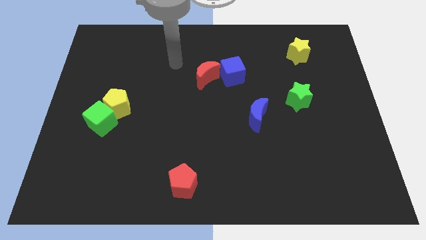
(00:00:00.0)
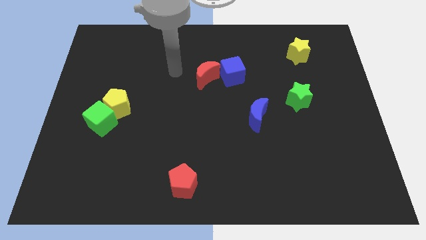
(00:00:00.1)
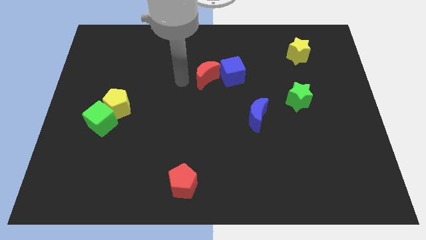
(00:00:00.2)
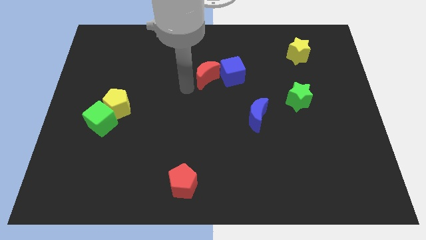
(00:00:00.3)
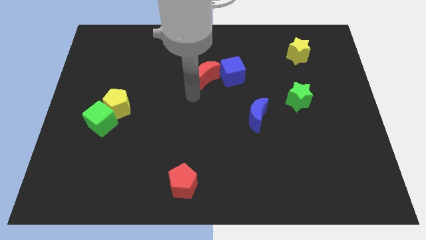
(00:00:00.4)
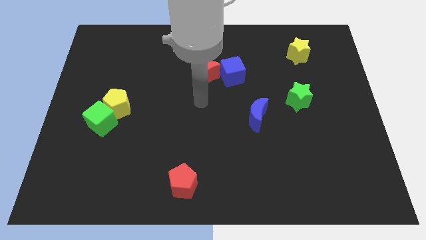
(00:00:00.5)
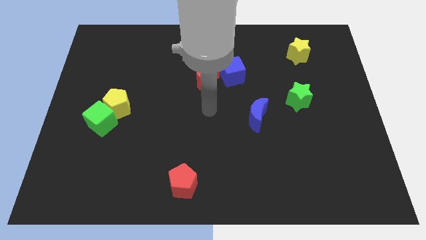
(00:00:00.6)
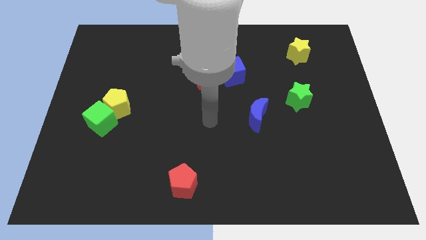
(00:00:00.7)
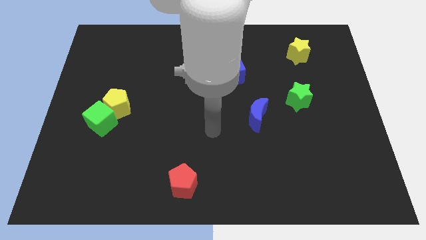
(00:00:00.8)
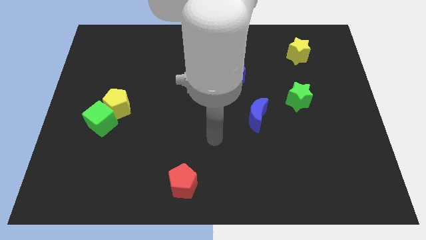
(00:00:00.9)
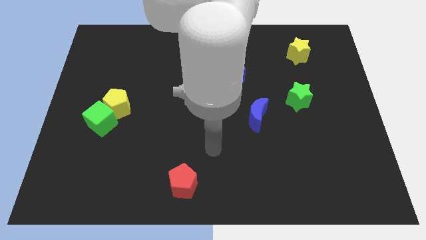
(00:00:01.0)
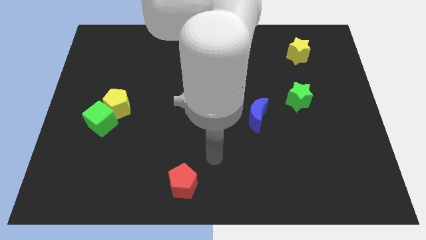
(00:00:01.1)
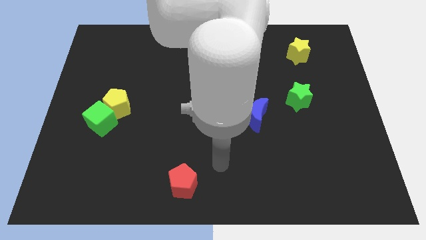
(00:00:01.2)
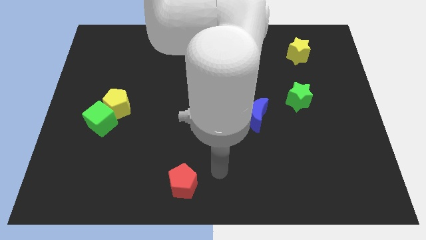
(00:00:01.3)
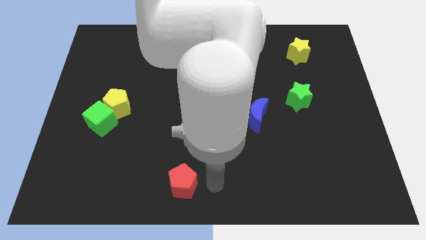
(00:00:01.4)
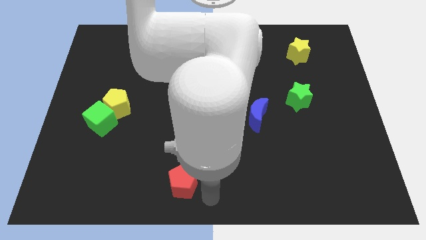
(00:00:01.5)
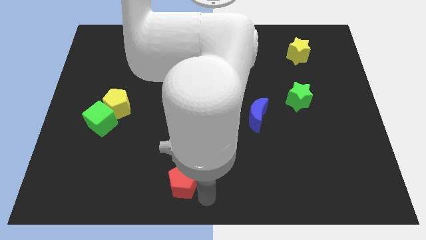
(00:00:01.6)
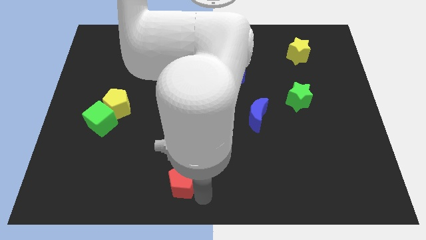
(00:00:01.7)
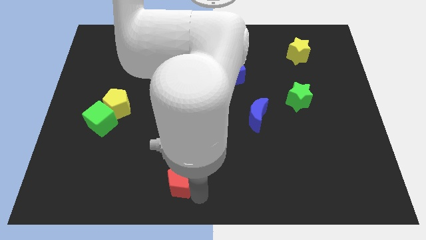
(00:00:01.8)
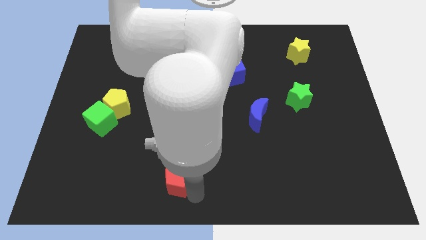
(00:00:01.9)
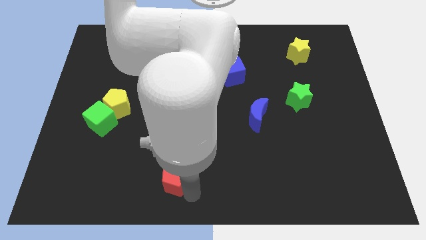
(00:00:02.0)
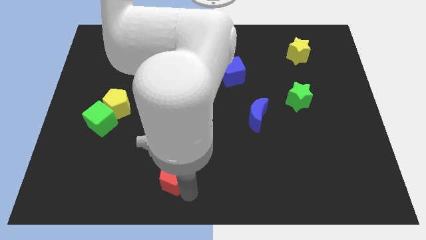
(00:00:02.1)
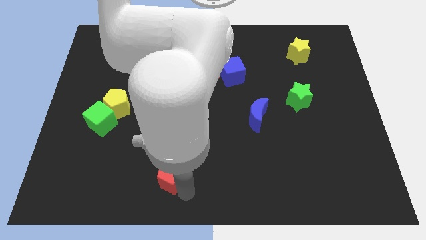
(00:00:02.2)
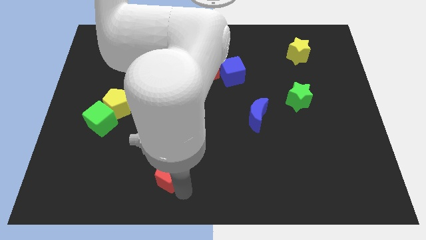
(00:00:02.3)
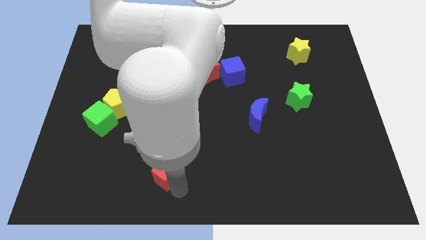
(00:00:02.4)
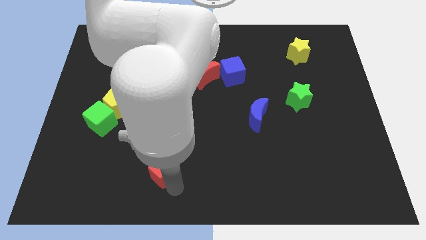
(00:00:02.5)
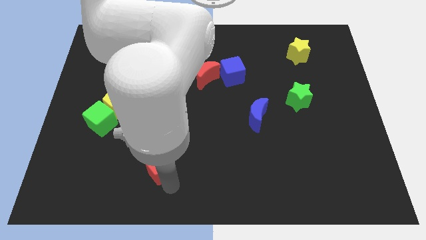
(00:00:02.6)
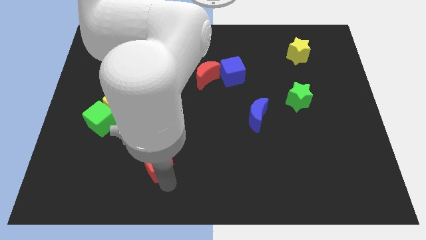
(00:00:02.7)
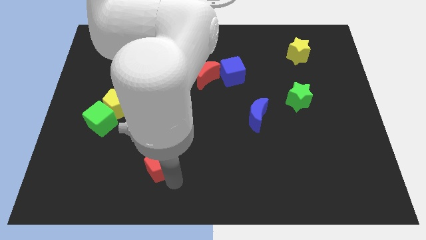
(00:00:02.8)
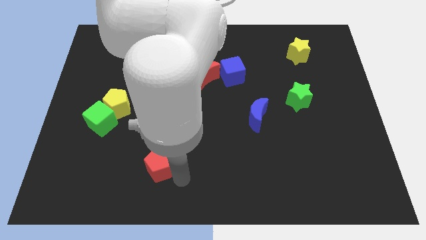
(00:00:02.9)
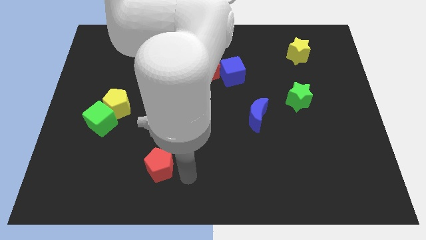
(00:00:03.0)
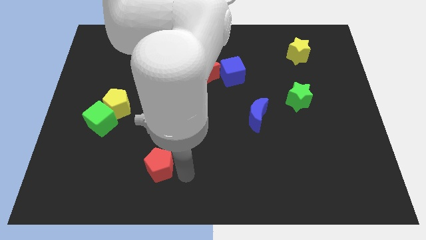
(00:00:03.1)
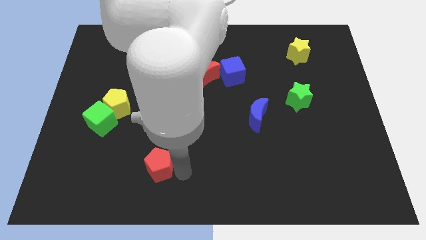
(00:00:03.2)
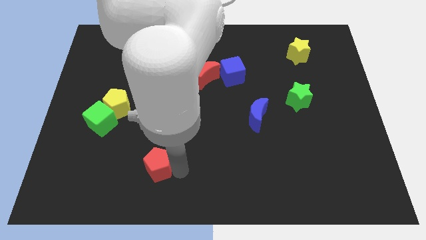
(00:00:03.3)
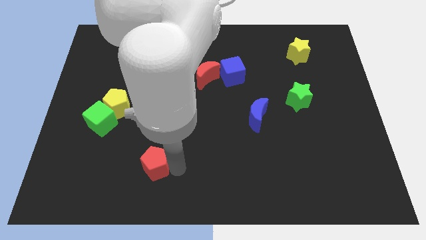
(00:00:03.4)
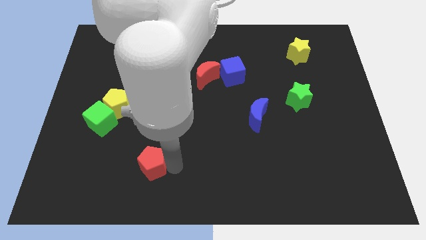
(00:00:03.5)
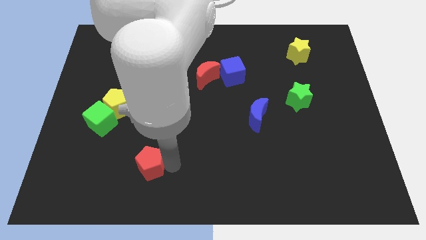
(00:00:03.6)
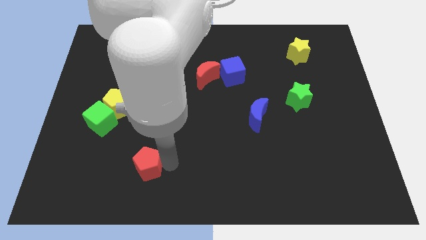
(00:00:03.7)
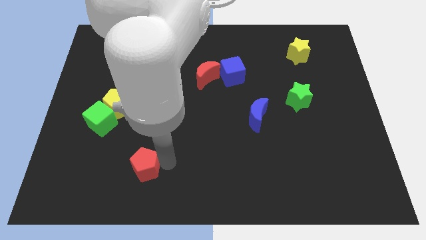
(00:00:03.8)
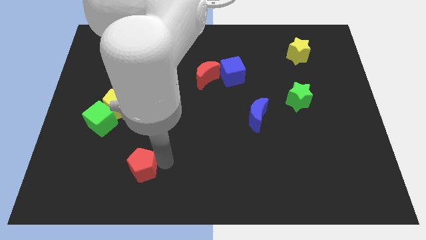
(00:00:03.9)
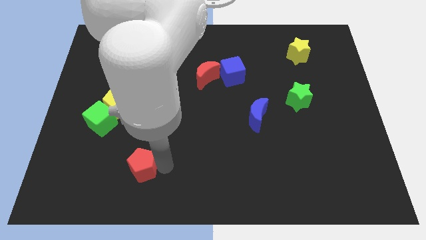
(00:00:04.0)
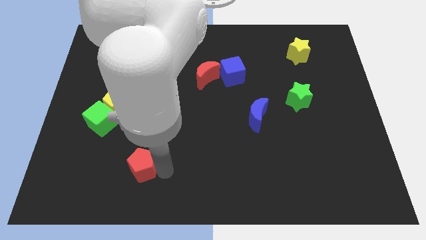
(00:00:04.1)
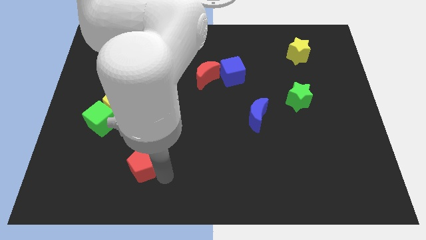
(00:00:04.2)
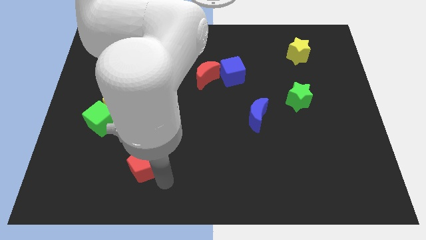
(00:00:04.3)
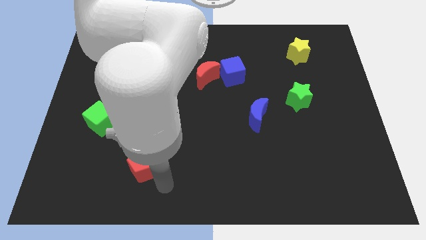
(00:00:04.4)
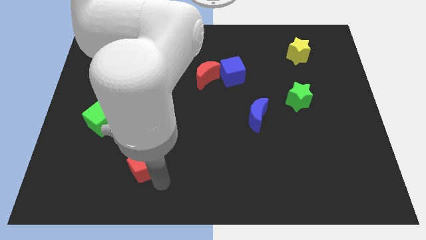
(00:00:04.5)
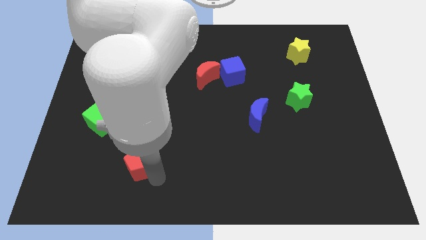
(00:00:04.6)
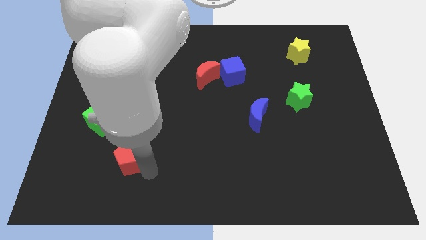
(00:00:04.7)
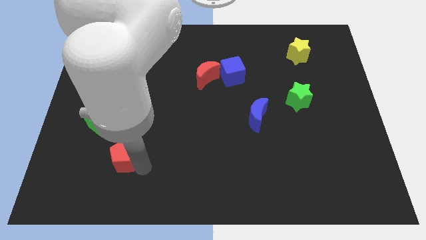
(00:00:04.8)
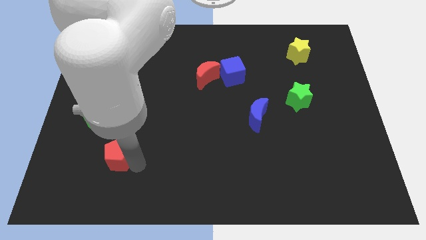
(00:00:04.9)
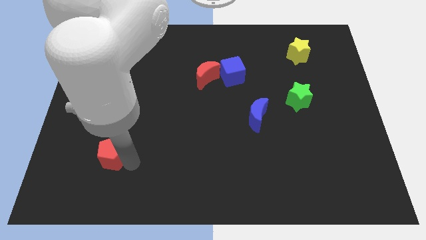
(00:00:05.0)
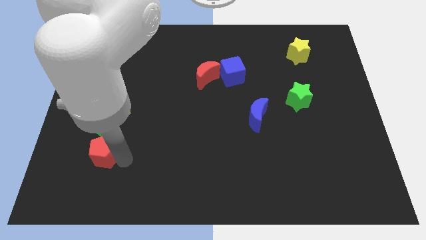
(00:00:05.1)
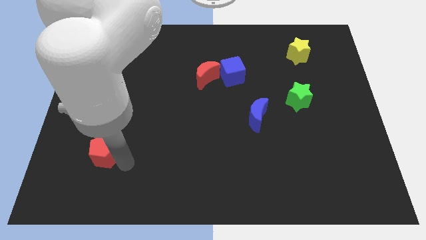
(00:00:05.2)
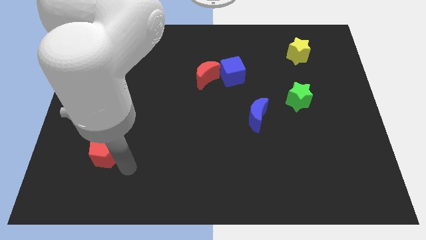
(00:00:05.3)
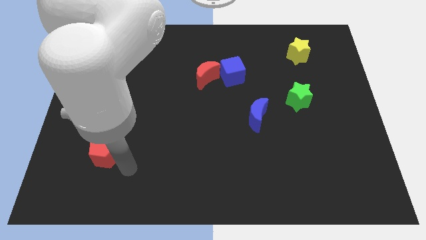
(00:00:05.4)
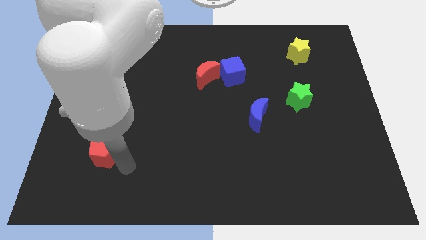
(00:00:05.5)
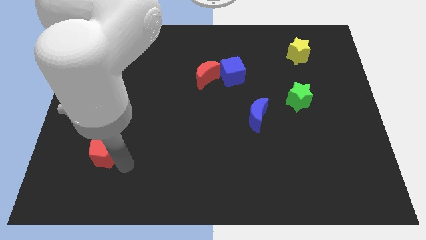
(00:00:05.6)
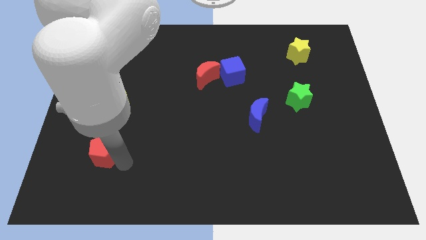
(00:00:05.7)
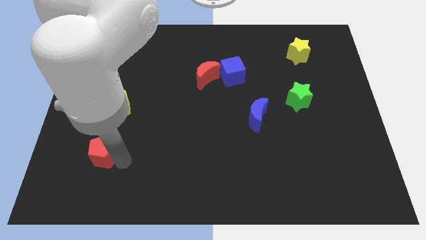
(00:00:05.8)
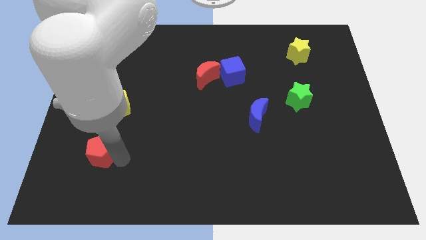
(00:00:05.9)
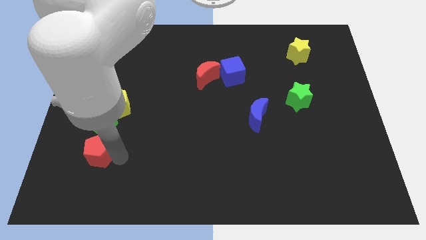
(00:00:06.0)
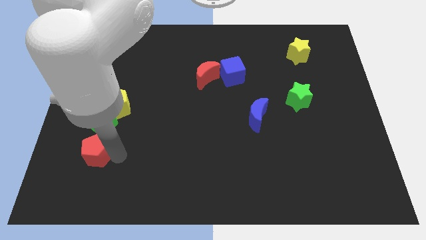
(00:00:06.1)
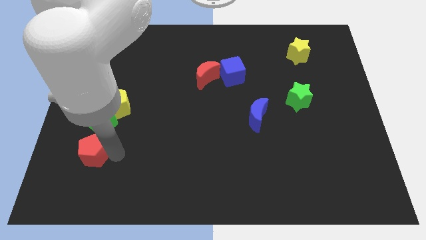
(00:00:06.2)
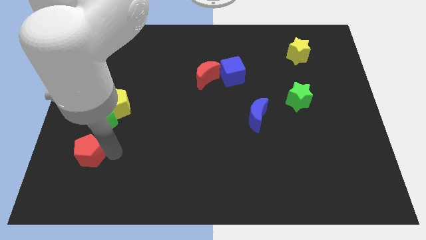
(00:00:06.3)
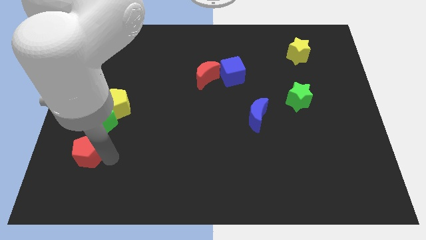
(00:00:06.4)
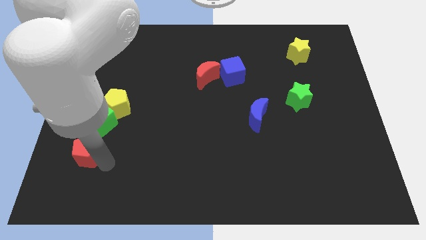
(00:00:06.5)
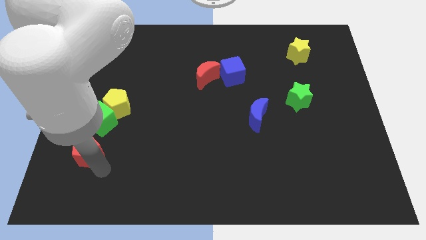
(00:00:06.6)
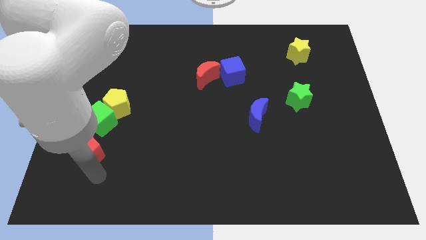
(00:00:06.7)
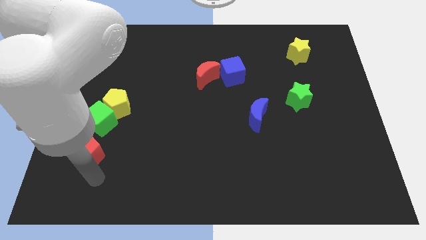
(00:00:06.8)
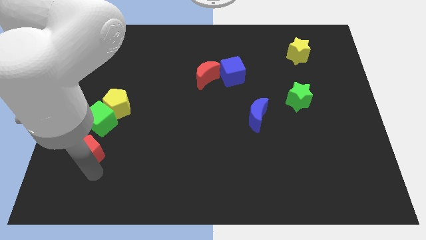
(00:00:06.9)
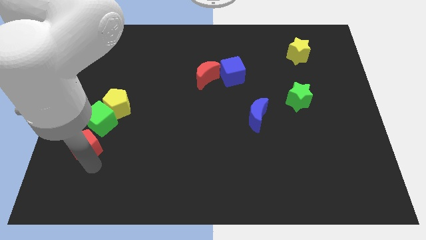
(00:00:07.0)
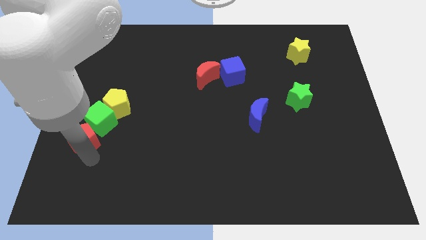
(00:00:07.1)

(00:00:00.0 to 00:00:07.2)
slide the red pentagon diagonally upwards and to the left

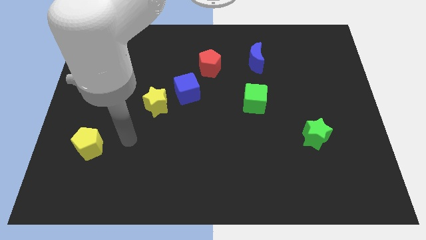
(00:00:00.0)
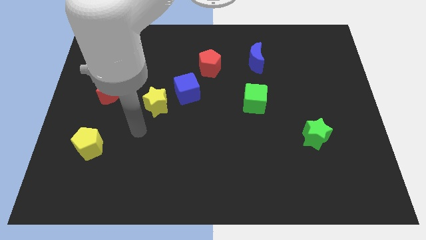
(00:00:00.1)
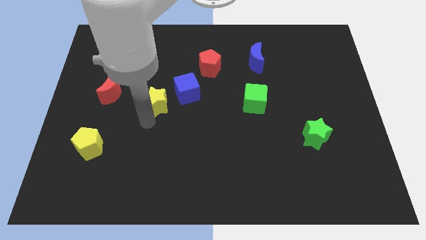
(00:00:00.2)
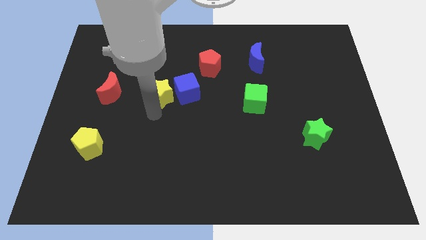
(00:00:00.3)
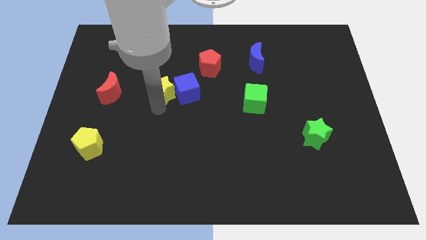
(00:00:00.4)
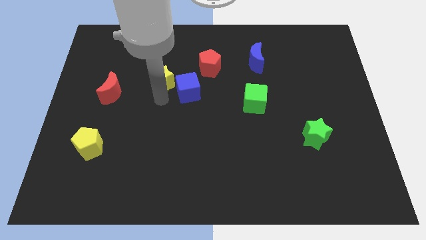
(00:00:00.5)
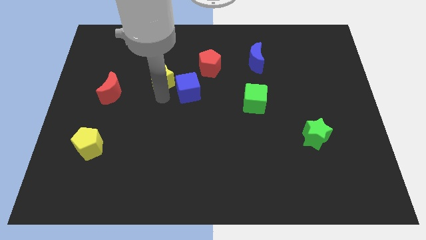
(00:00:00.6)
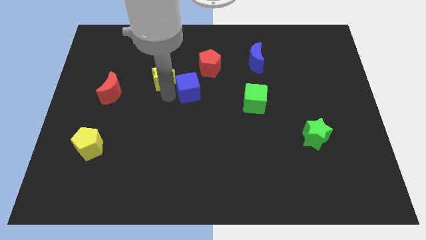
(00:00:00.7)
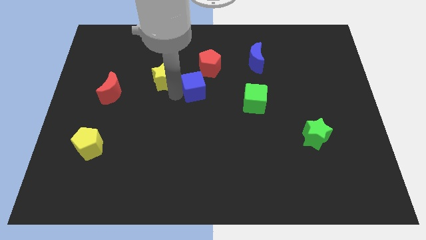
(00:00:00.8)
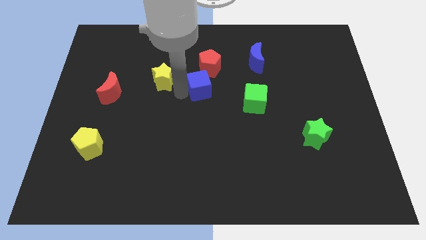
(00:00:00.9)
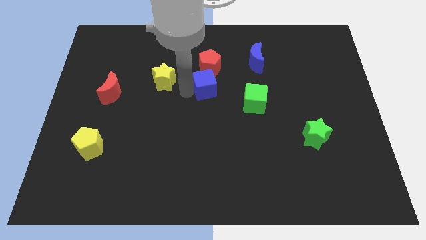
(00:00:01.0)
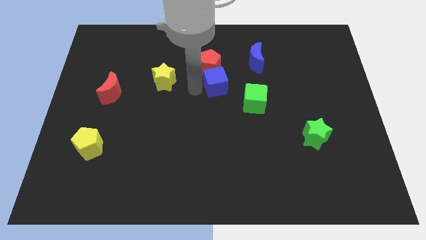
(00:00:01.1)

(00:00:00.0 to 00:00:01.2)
move the blue cube to the right a little bit
